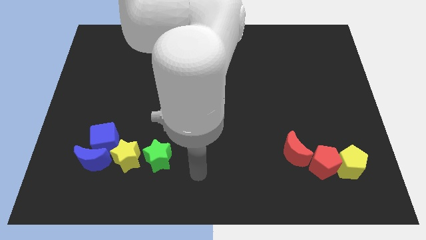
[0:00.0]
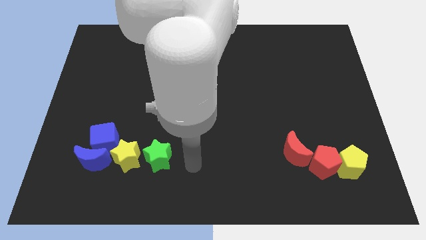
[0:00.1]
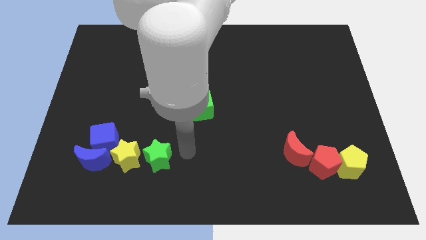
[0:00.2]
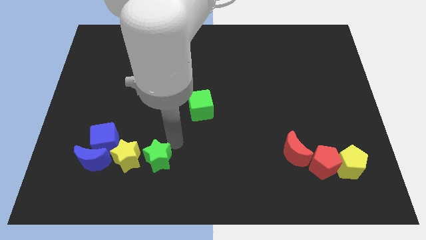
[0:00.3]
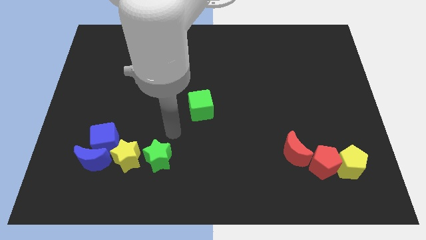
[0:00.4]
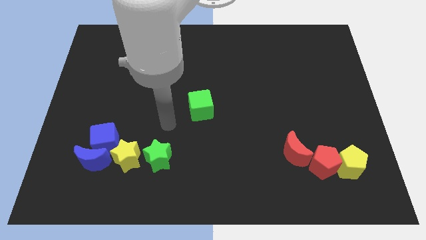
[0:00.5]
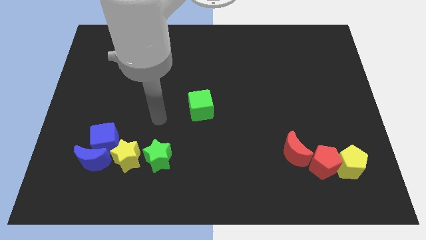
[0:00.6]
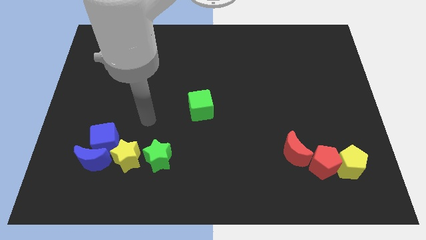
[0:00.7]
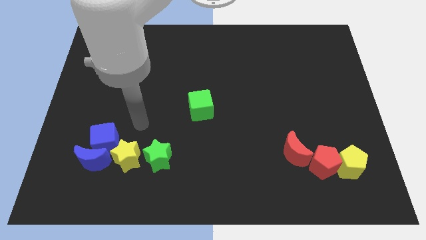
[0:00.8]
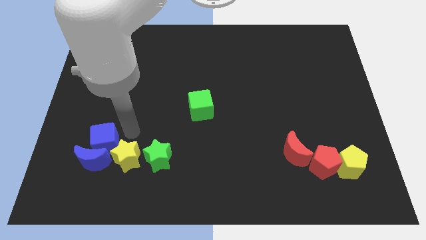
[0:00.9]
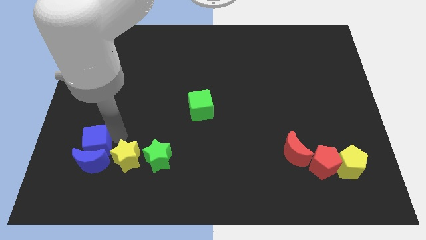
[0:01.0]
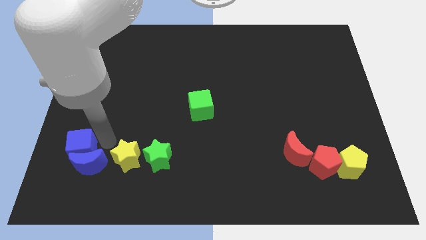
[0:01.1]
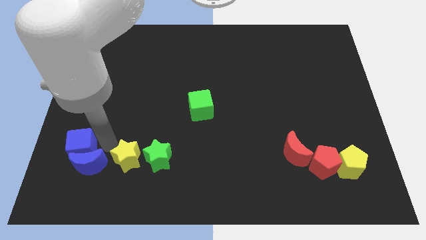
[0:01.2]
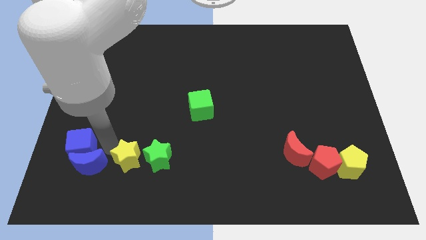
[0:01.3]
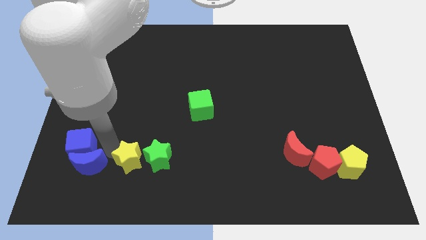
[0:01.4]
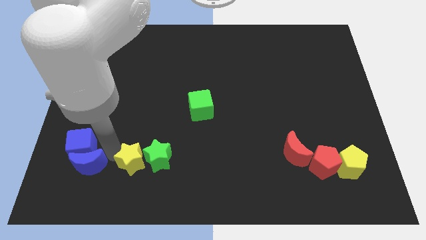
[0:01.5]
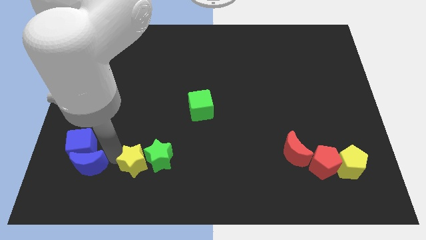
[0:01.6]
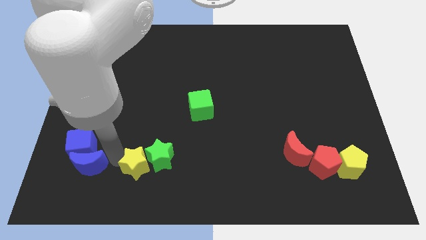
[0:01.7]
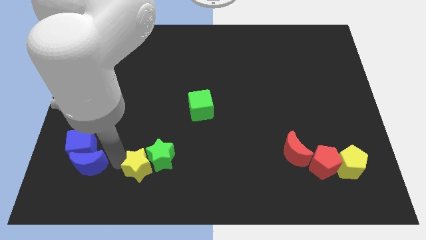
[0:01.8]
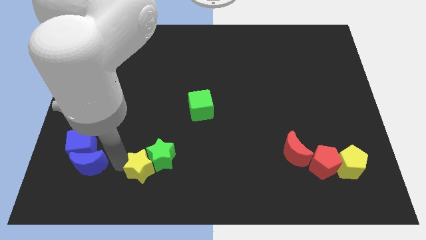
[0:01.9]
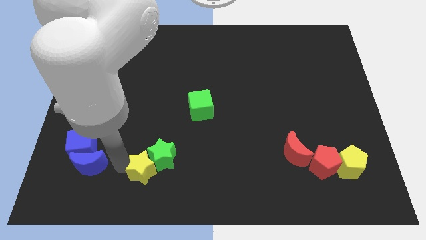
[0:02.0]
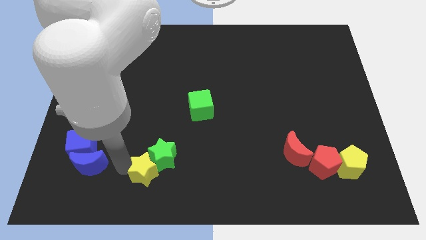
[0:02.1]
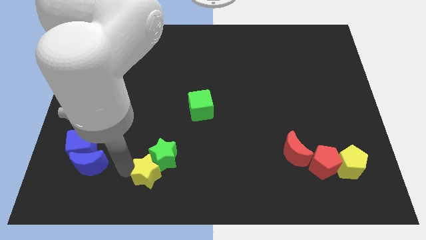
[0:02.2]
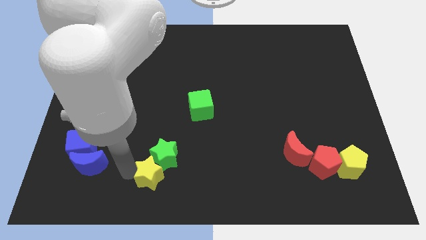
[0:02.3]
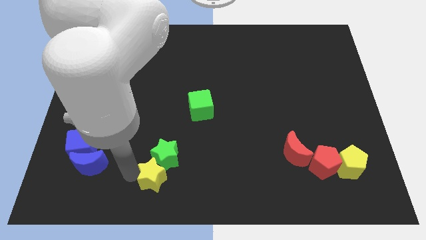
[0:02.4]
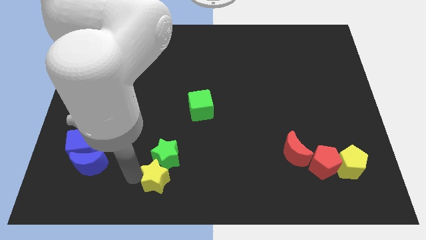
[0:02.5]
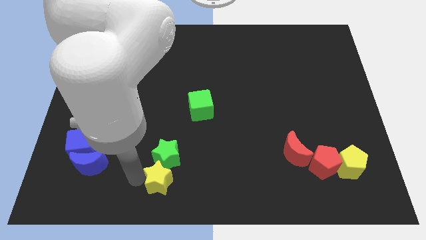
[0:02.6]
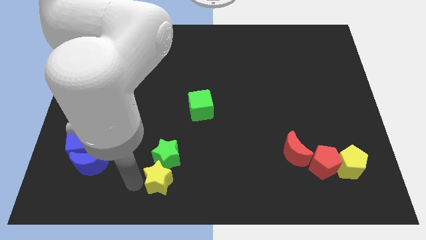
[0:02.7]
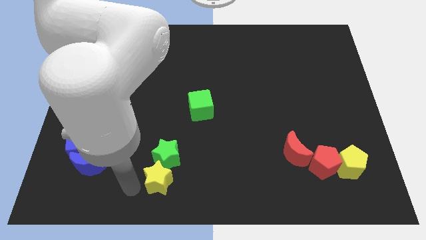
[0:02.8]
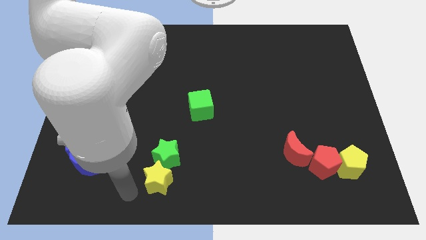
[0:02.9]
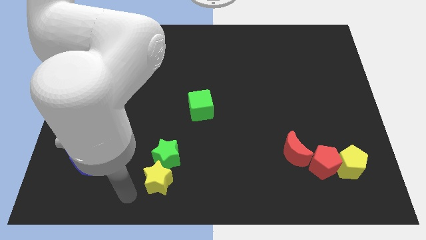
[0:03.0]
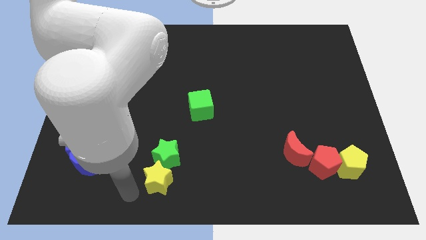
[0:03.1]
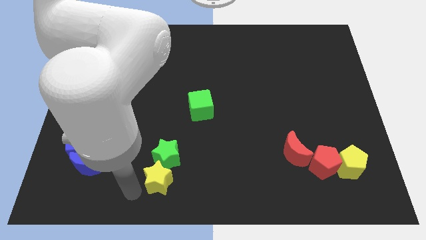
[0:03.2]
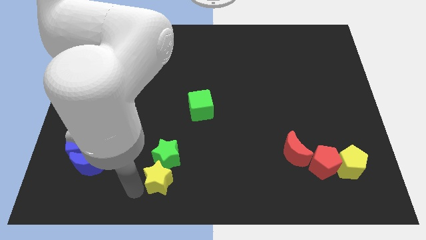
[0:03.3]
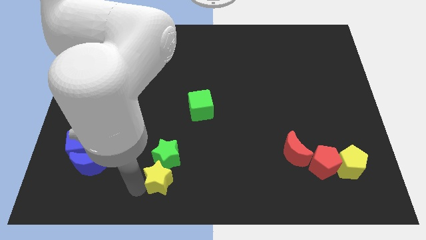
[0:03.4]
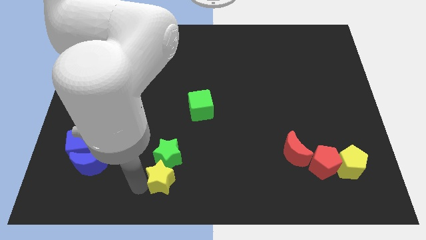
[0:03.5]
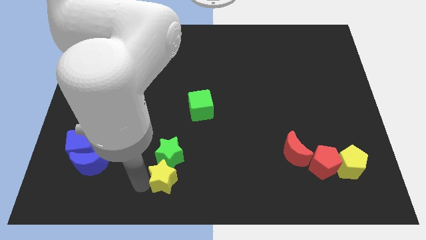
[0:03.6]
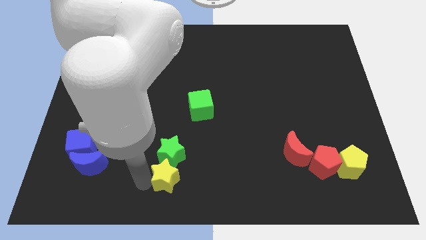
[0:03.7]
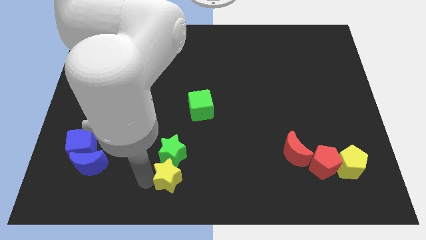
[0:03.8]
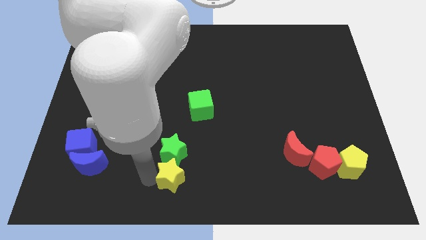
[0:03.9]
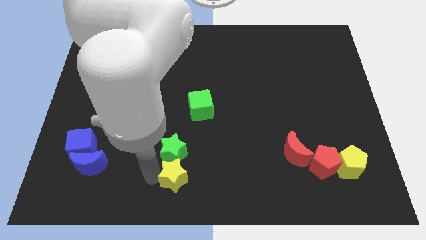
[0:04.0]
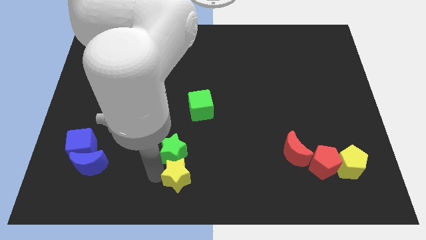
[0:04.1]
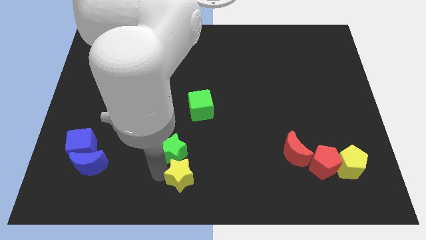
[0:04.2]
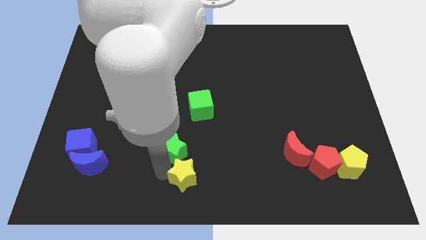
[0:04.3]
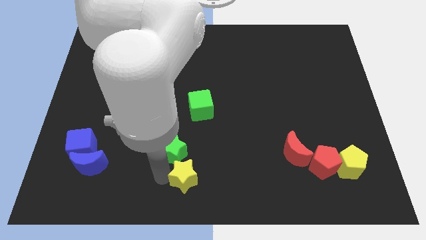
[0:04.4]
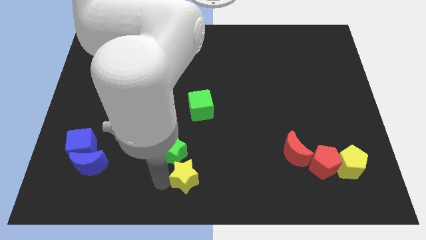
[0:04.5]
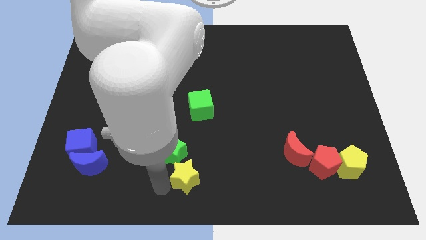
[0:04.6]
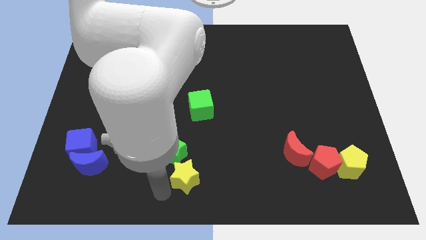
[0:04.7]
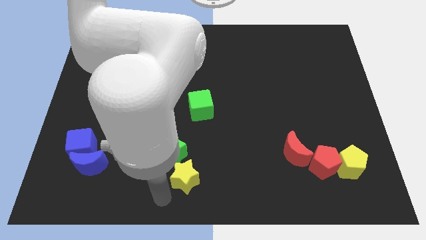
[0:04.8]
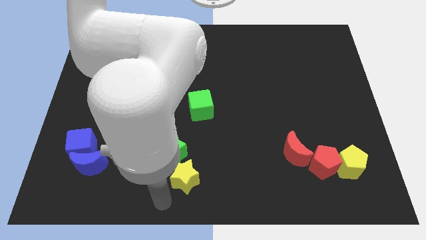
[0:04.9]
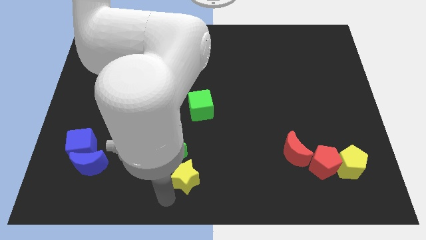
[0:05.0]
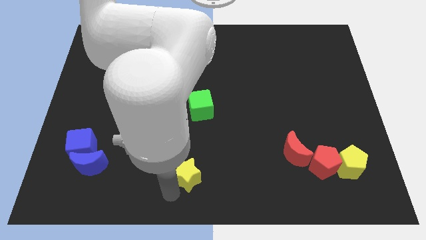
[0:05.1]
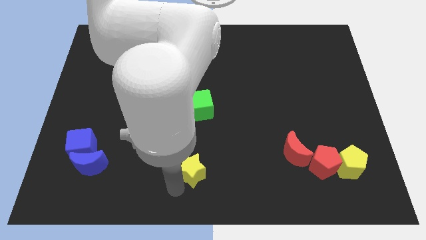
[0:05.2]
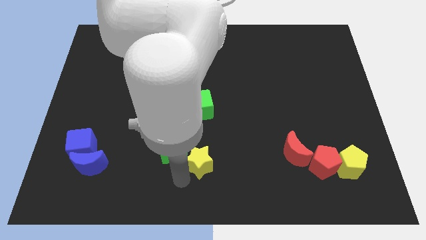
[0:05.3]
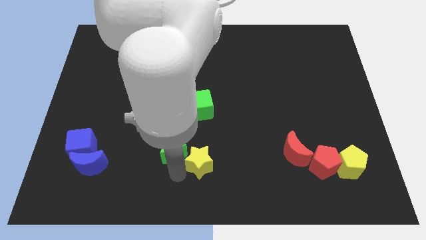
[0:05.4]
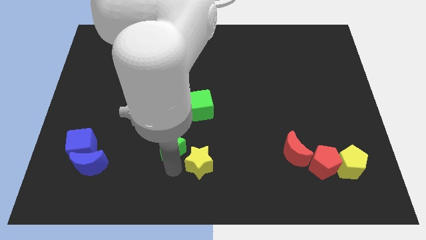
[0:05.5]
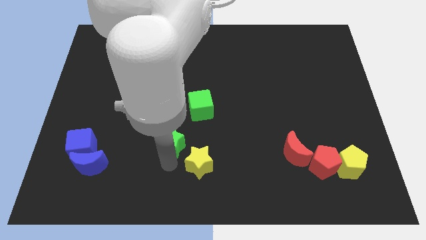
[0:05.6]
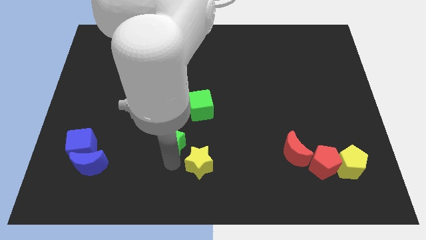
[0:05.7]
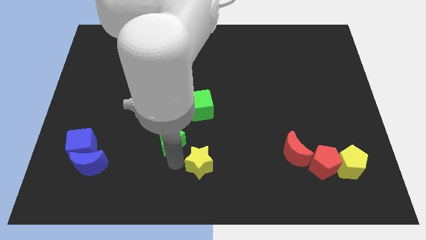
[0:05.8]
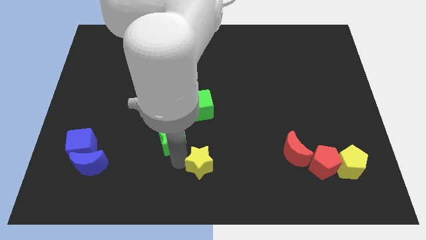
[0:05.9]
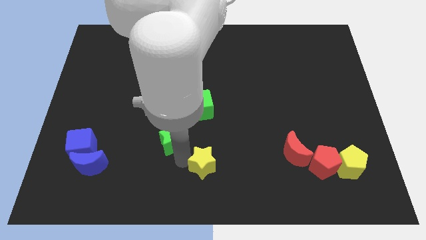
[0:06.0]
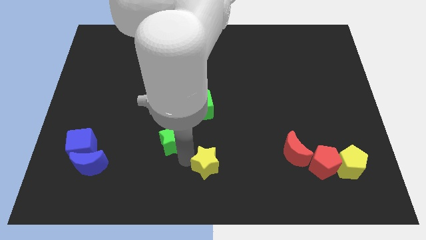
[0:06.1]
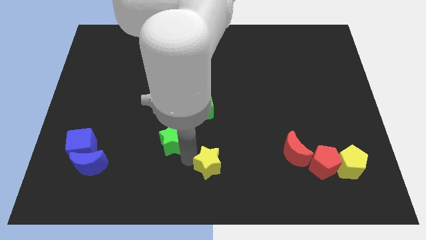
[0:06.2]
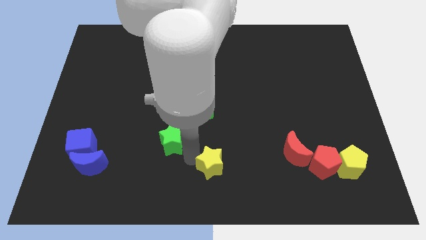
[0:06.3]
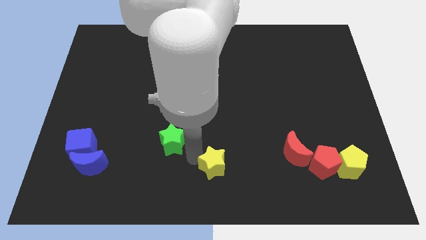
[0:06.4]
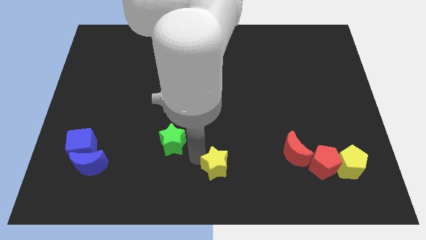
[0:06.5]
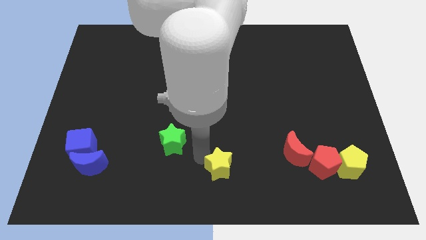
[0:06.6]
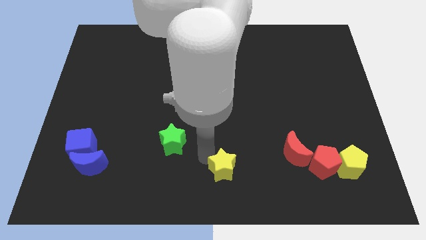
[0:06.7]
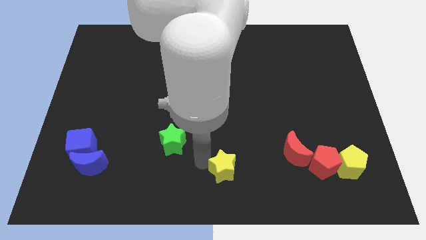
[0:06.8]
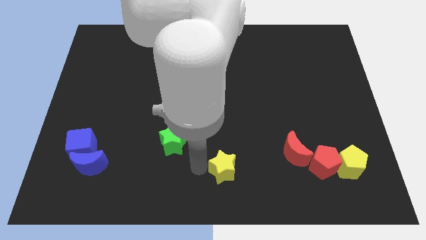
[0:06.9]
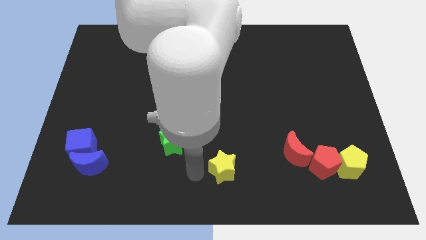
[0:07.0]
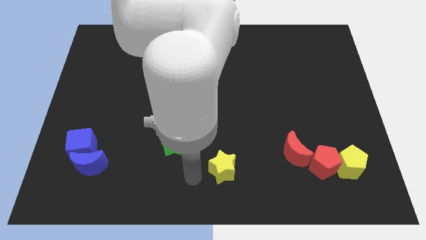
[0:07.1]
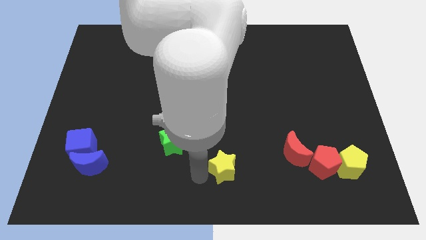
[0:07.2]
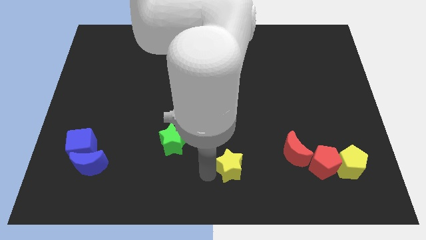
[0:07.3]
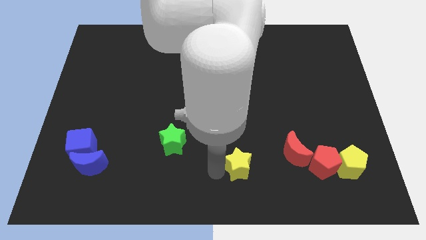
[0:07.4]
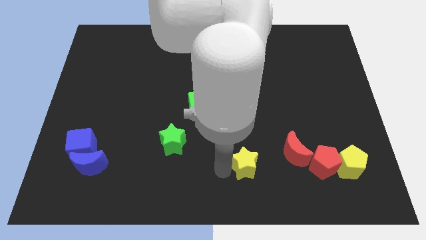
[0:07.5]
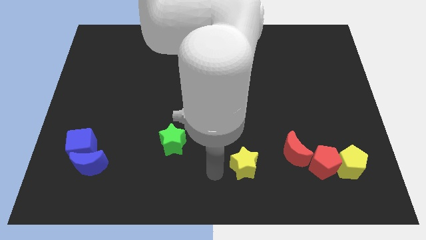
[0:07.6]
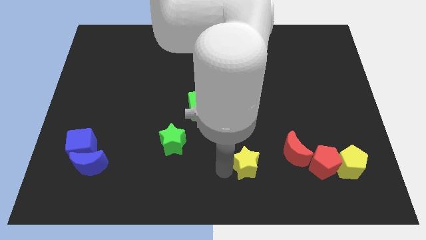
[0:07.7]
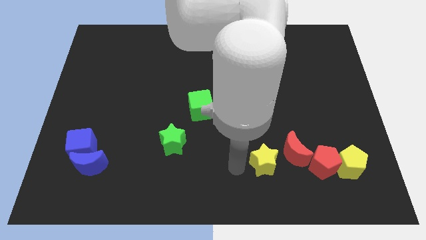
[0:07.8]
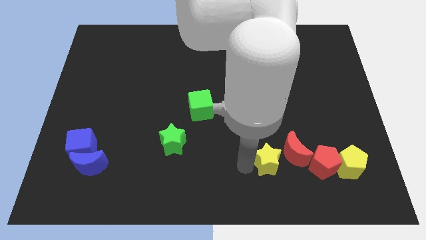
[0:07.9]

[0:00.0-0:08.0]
move the yellow star next to the red moon

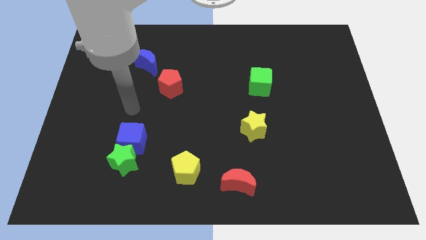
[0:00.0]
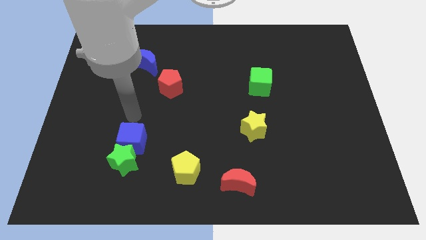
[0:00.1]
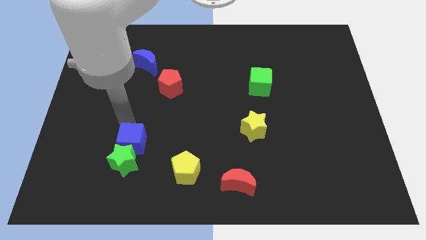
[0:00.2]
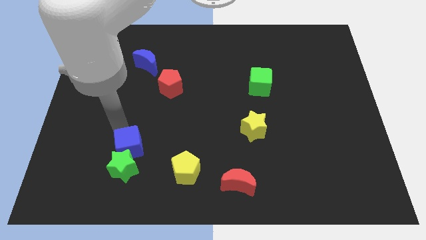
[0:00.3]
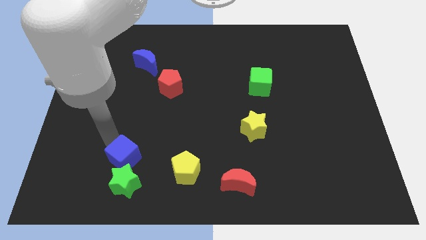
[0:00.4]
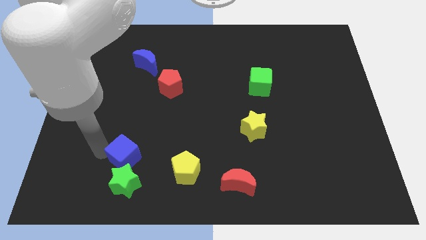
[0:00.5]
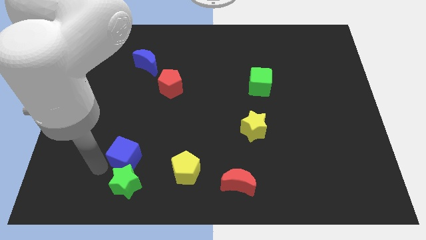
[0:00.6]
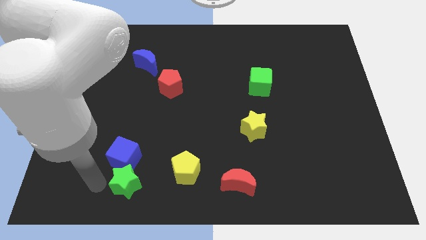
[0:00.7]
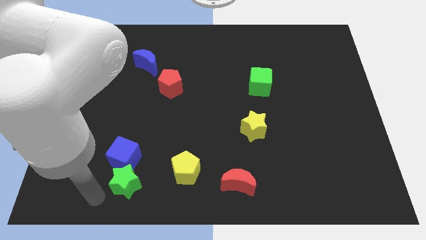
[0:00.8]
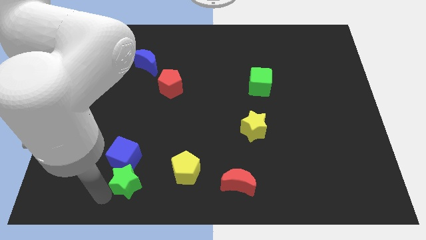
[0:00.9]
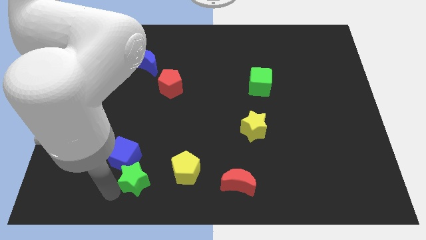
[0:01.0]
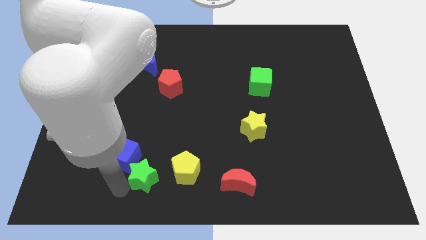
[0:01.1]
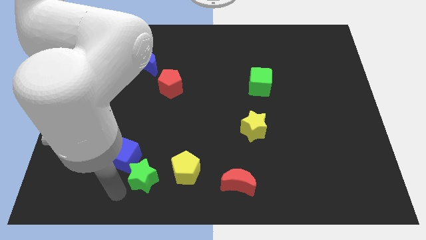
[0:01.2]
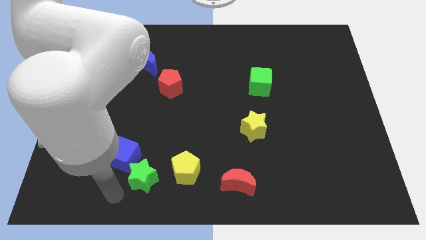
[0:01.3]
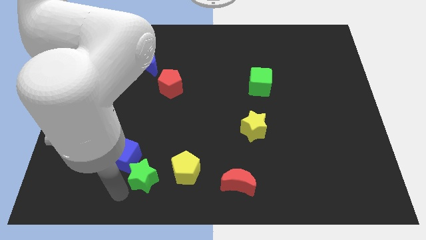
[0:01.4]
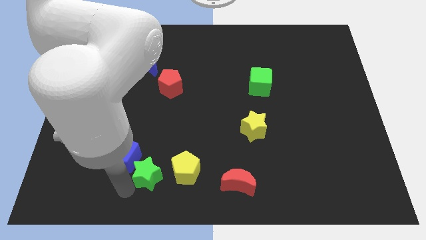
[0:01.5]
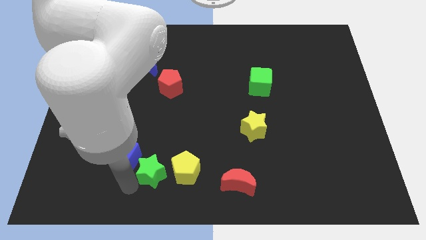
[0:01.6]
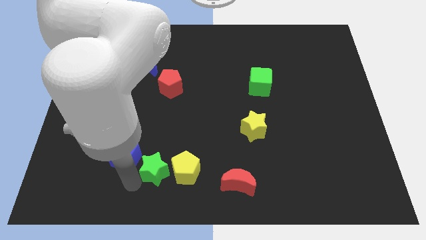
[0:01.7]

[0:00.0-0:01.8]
push the green star to the yellow pentagon
